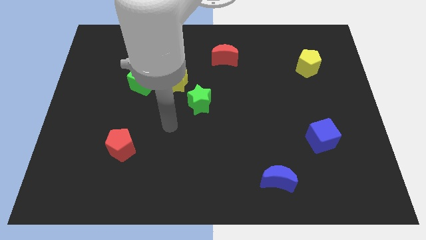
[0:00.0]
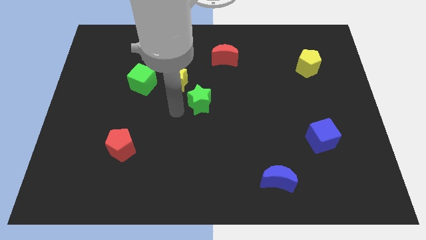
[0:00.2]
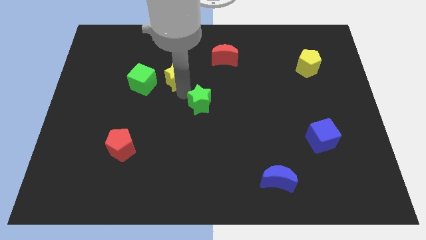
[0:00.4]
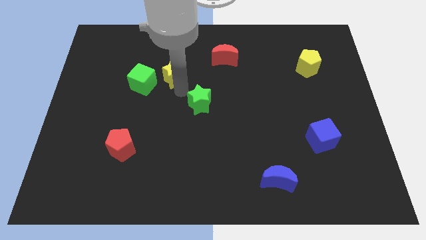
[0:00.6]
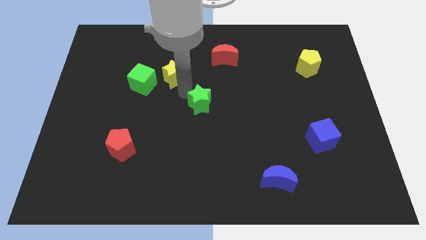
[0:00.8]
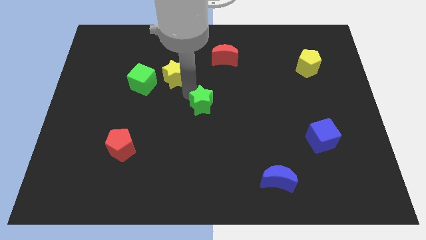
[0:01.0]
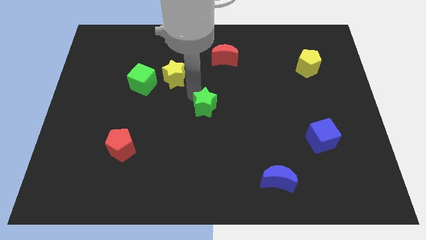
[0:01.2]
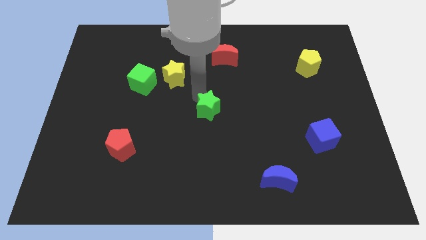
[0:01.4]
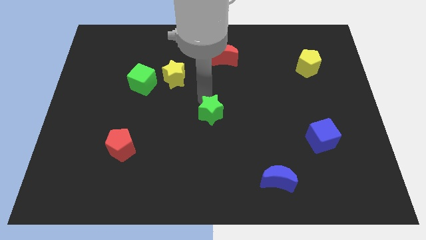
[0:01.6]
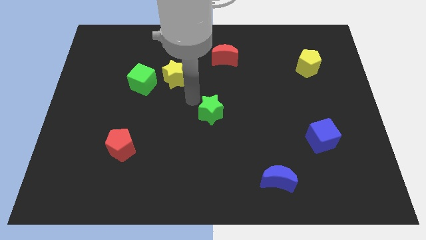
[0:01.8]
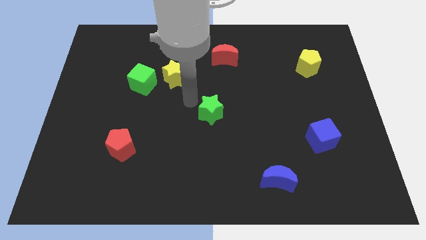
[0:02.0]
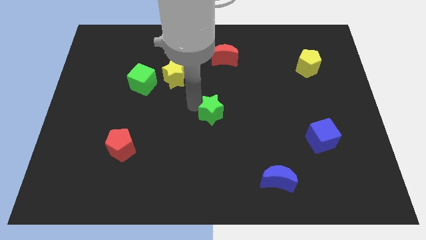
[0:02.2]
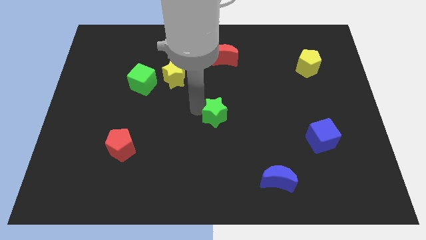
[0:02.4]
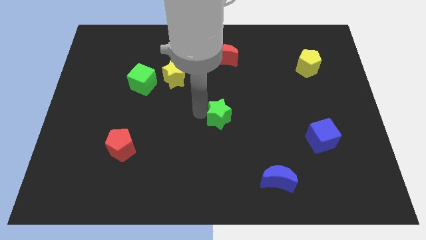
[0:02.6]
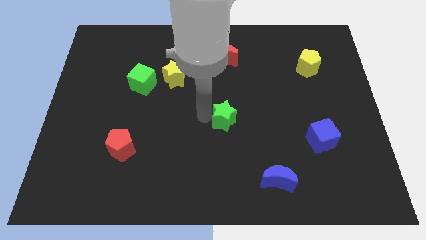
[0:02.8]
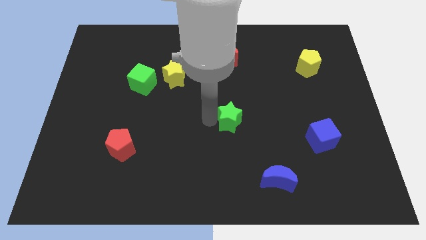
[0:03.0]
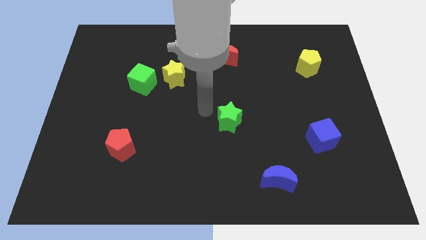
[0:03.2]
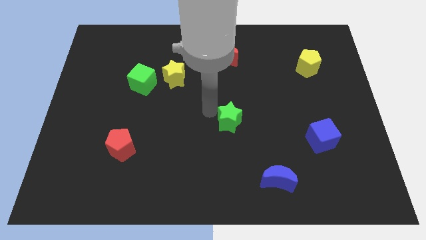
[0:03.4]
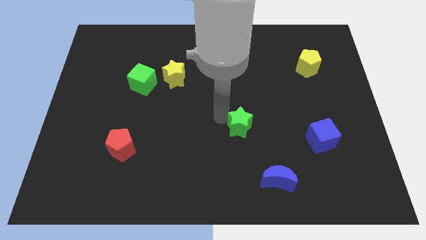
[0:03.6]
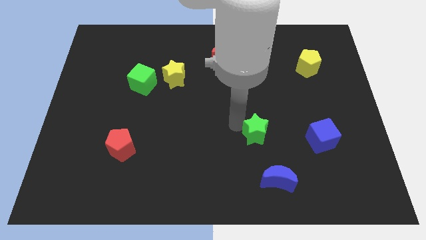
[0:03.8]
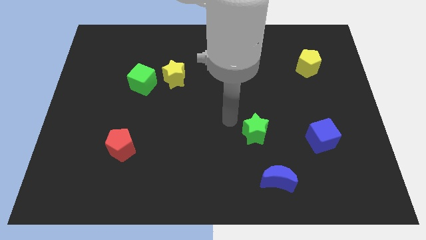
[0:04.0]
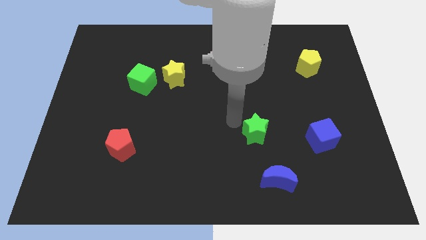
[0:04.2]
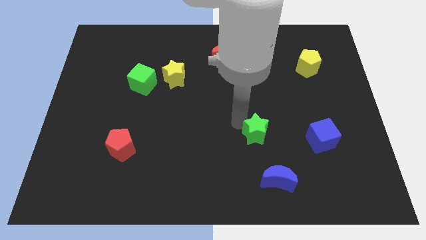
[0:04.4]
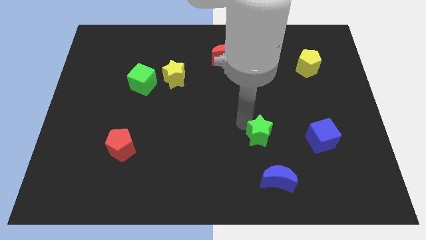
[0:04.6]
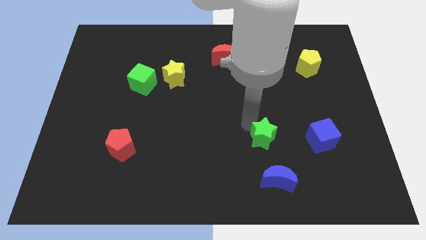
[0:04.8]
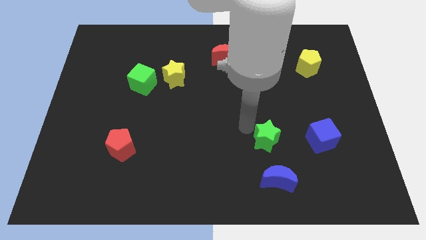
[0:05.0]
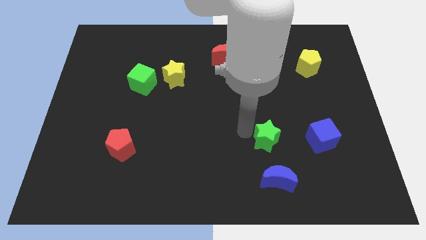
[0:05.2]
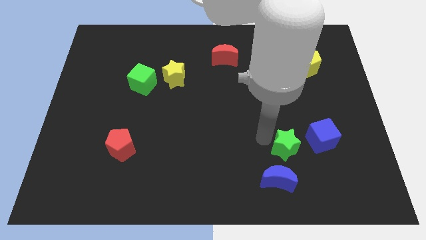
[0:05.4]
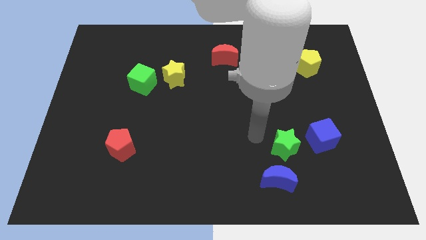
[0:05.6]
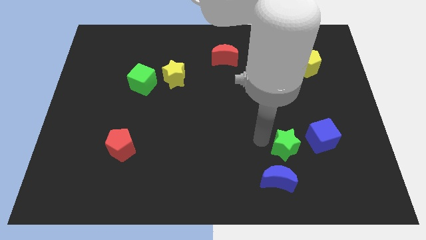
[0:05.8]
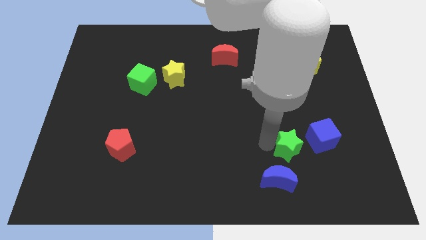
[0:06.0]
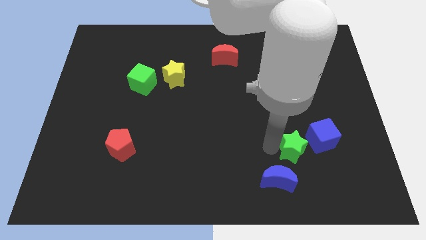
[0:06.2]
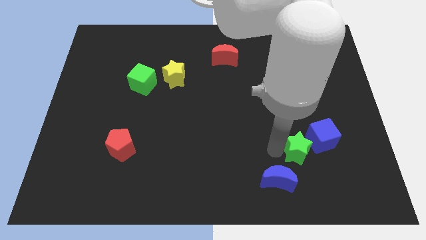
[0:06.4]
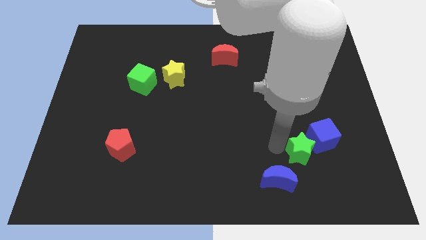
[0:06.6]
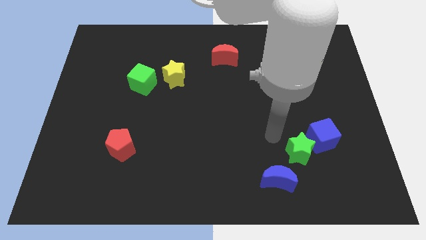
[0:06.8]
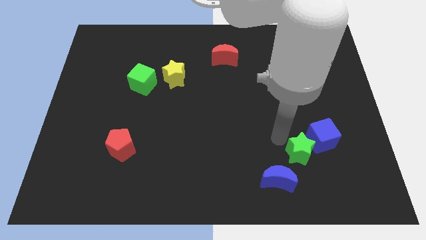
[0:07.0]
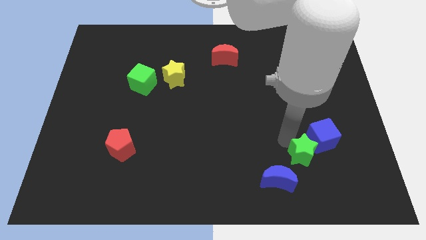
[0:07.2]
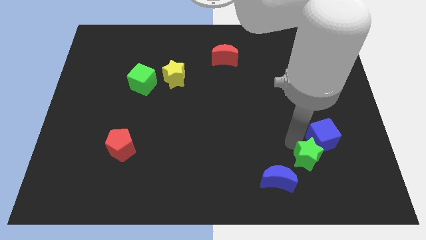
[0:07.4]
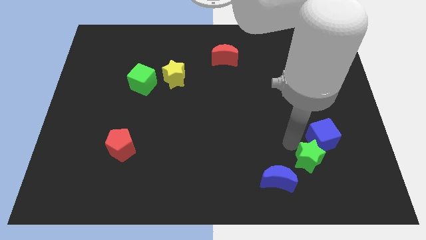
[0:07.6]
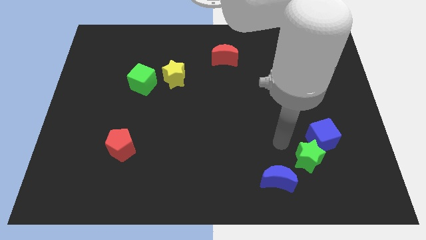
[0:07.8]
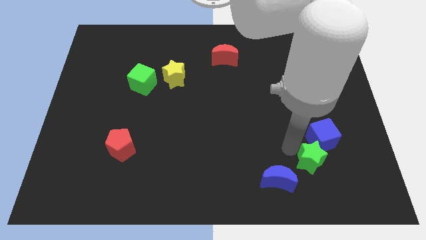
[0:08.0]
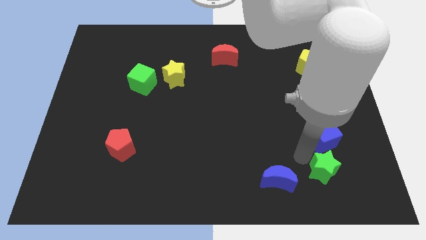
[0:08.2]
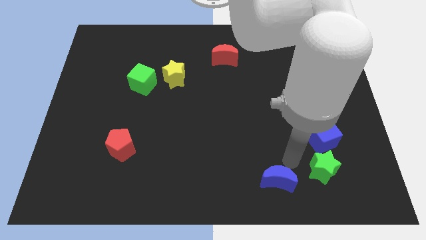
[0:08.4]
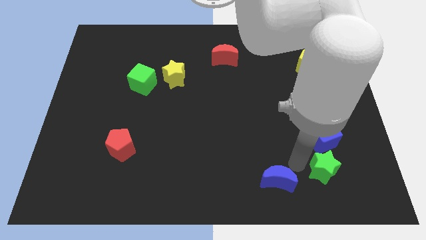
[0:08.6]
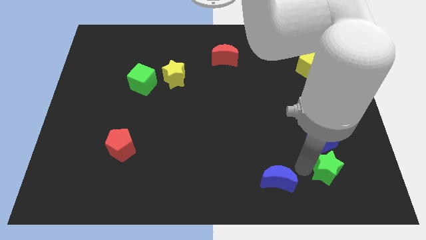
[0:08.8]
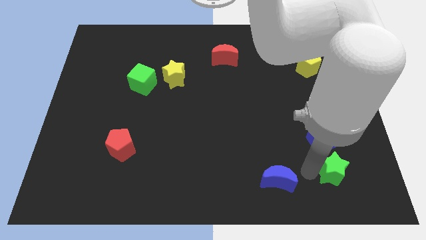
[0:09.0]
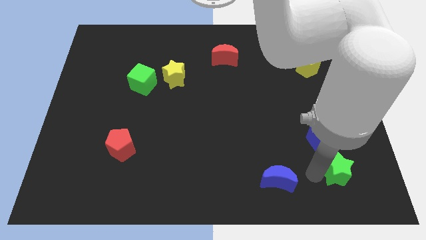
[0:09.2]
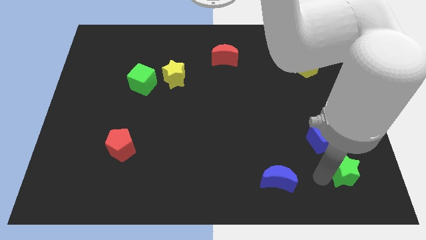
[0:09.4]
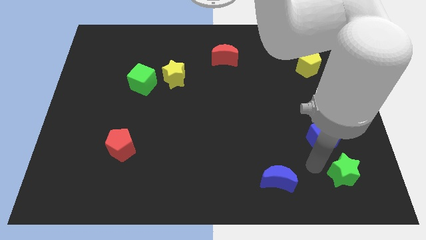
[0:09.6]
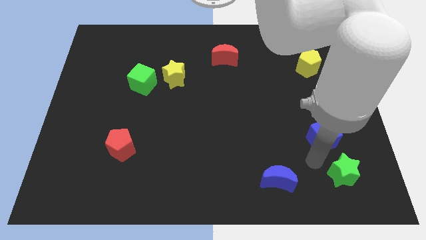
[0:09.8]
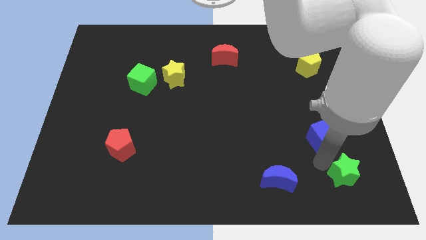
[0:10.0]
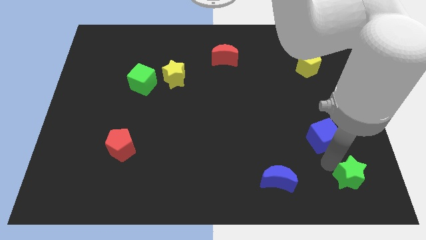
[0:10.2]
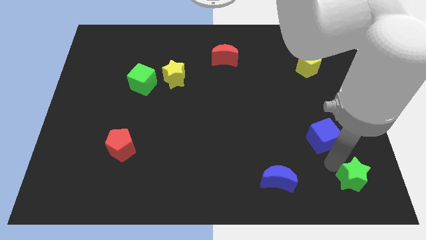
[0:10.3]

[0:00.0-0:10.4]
put the green star to the bottom right corner
